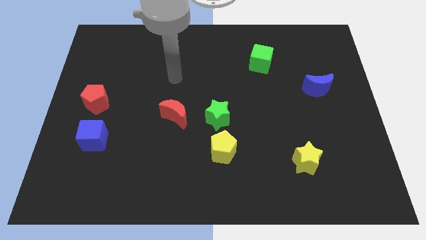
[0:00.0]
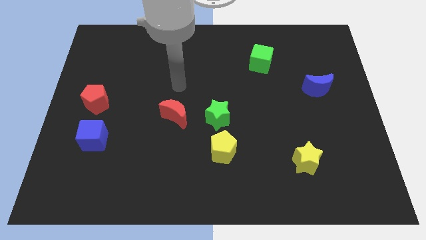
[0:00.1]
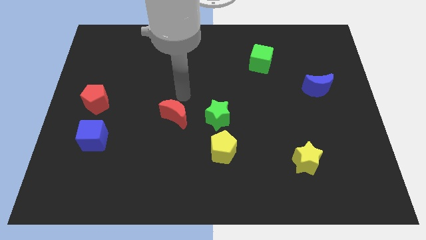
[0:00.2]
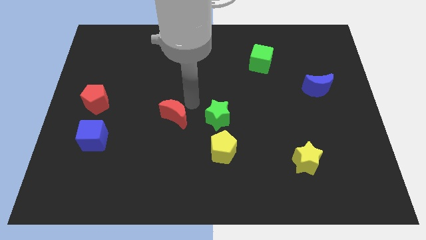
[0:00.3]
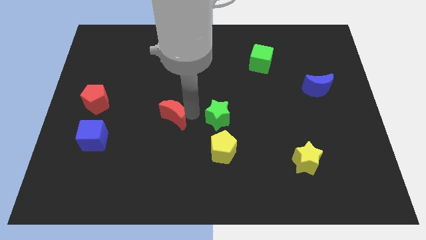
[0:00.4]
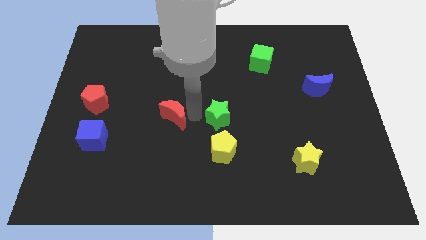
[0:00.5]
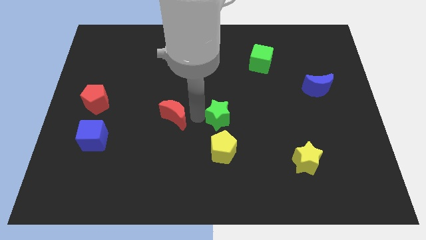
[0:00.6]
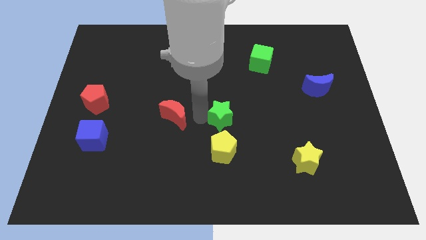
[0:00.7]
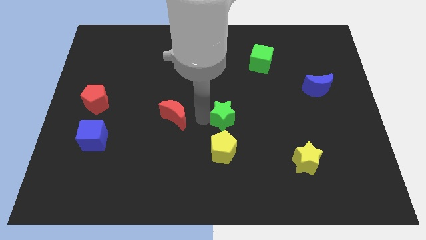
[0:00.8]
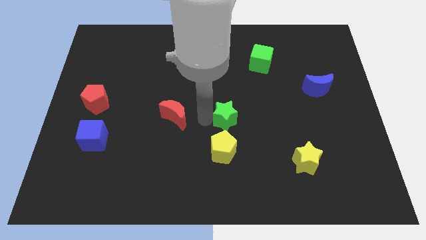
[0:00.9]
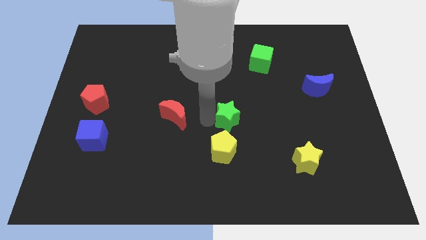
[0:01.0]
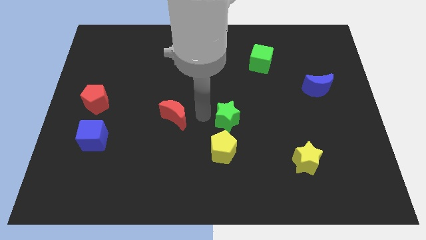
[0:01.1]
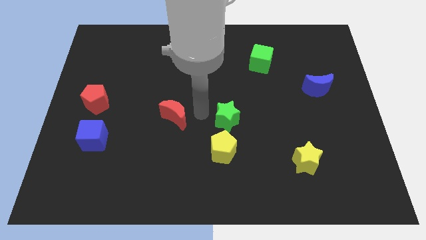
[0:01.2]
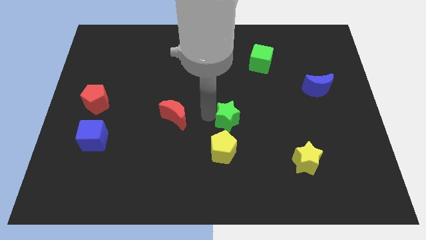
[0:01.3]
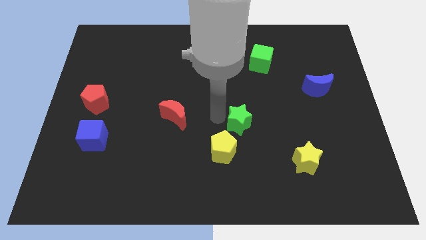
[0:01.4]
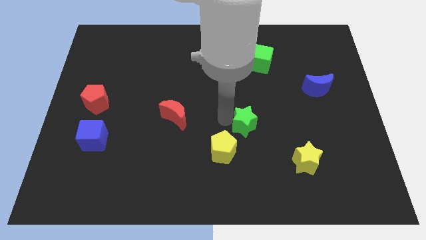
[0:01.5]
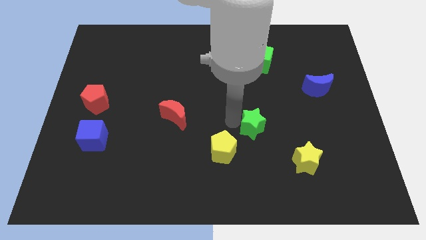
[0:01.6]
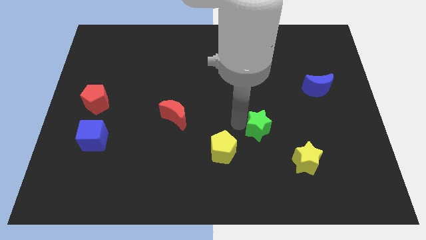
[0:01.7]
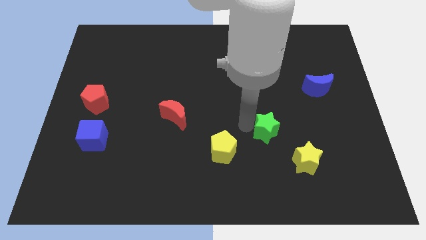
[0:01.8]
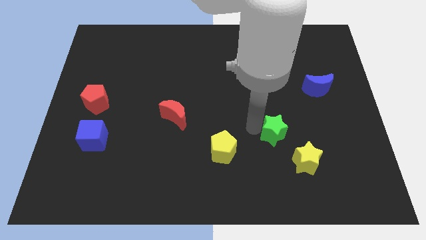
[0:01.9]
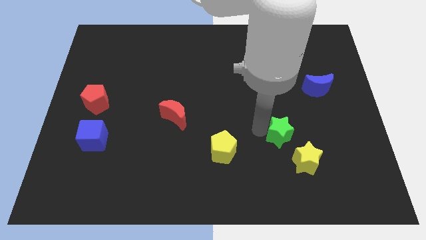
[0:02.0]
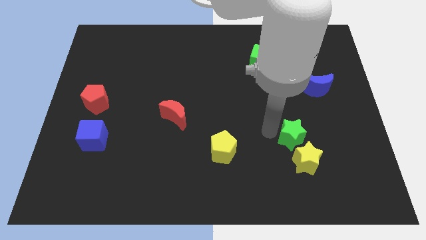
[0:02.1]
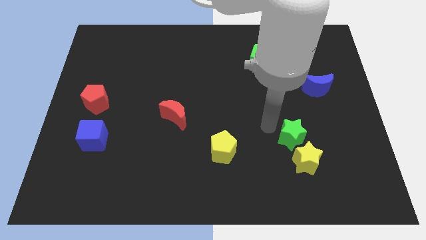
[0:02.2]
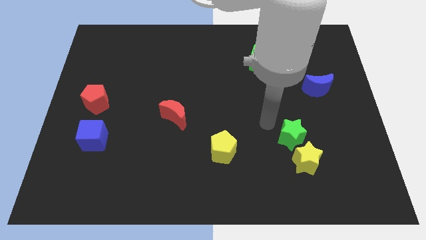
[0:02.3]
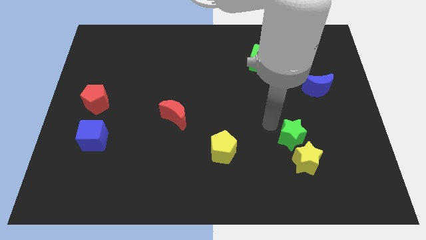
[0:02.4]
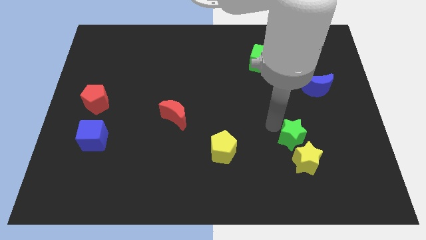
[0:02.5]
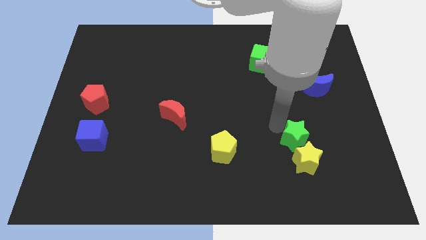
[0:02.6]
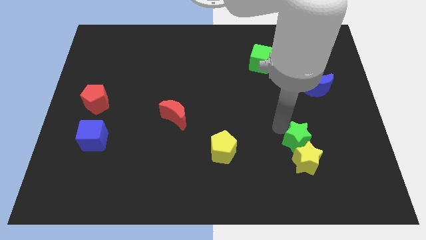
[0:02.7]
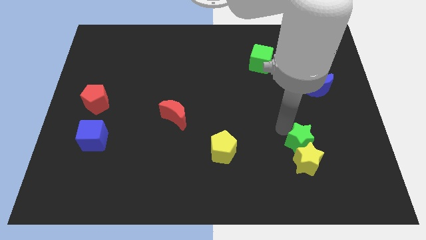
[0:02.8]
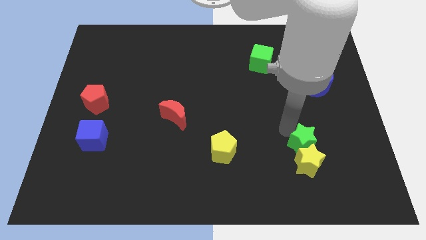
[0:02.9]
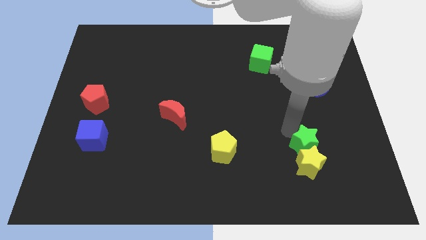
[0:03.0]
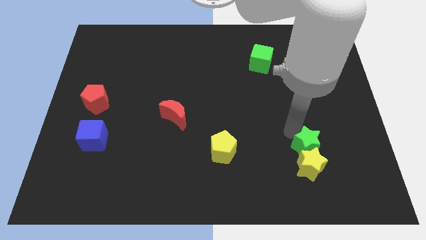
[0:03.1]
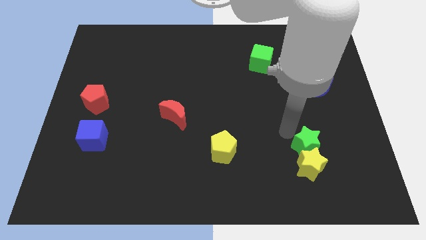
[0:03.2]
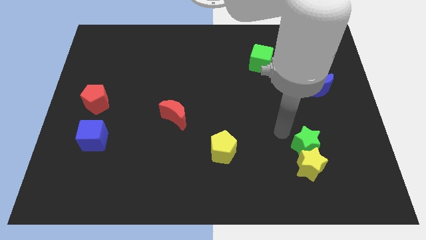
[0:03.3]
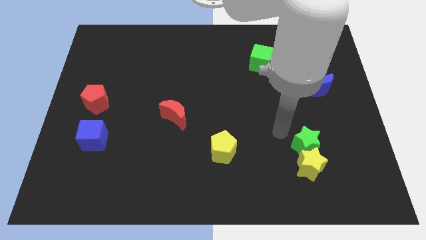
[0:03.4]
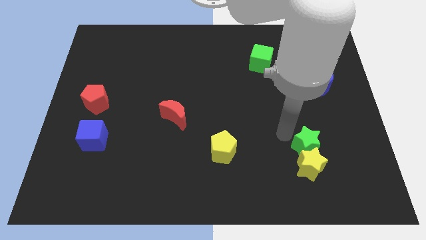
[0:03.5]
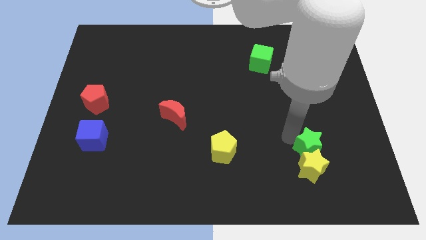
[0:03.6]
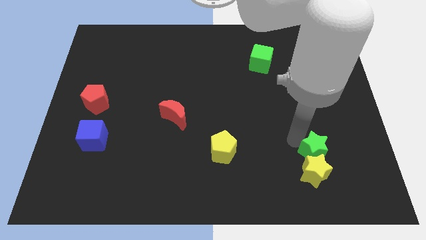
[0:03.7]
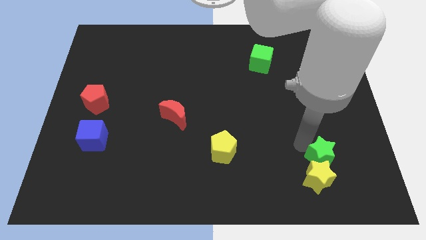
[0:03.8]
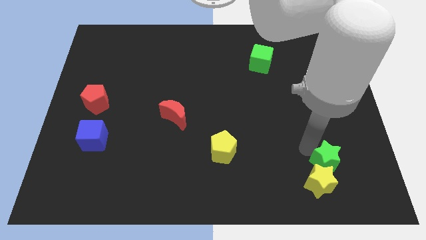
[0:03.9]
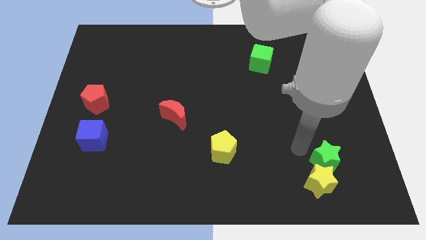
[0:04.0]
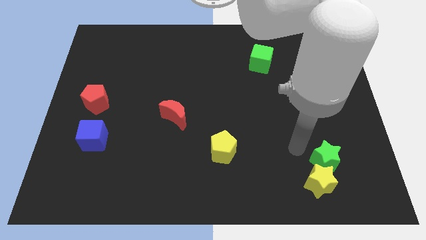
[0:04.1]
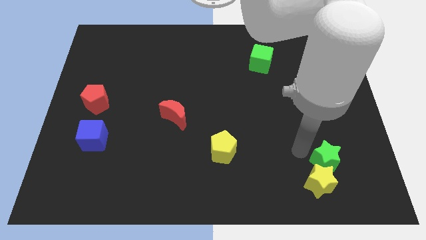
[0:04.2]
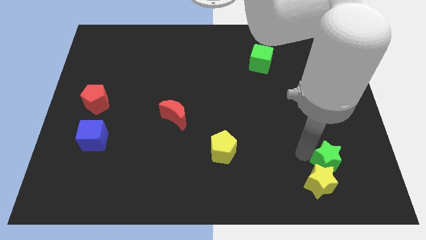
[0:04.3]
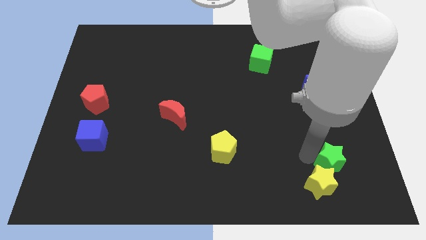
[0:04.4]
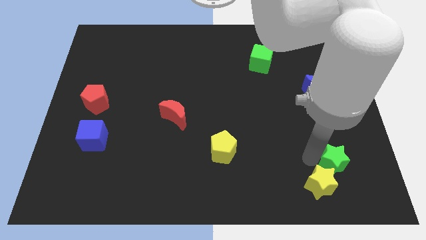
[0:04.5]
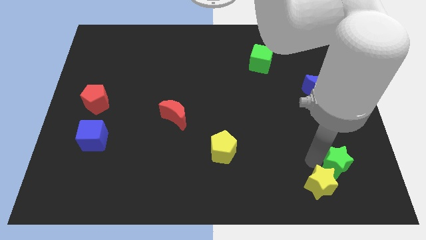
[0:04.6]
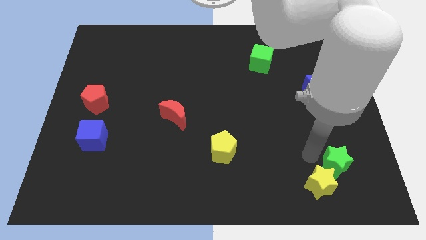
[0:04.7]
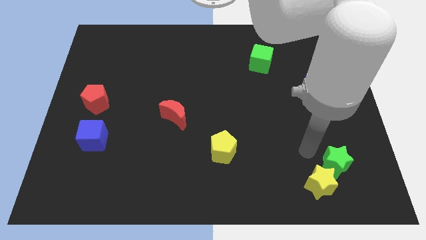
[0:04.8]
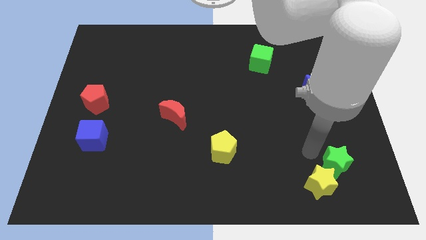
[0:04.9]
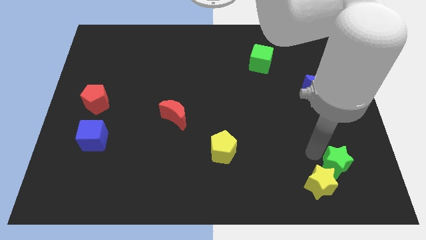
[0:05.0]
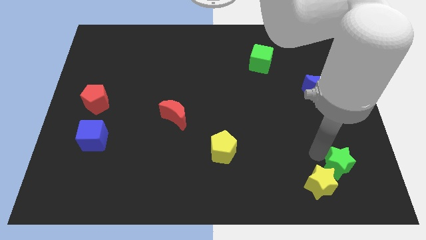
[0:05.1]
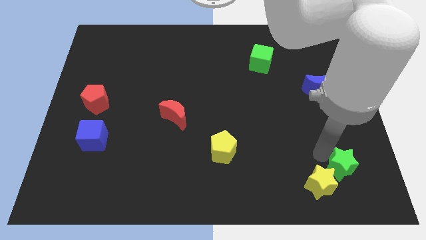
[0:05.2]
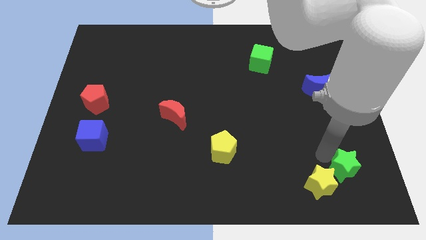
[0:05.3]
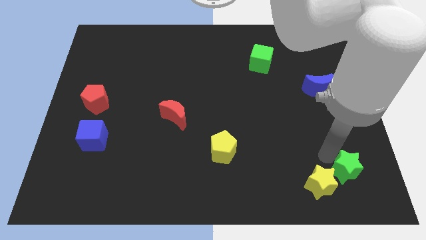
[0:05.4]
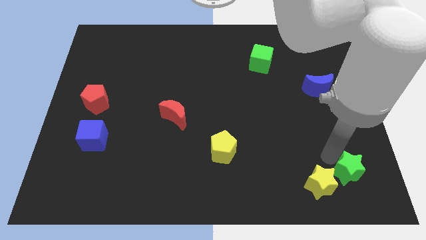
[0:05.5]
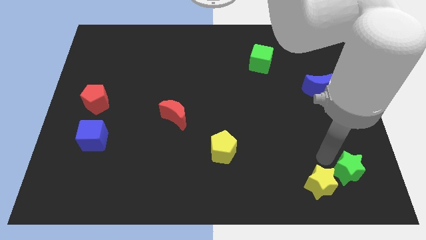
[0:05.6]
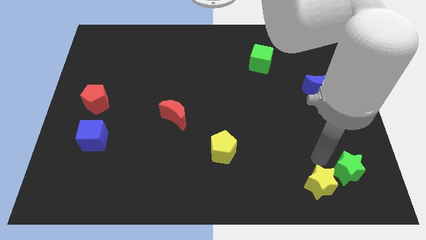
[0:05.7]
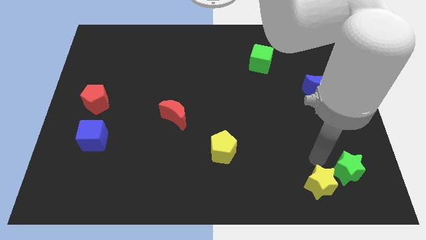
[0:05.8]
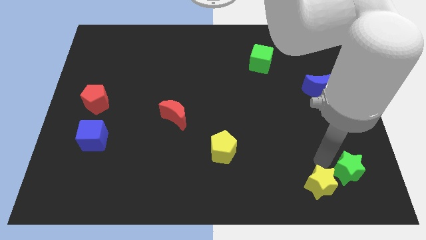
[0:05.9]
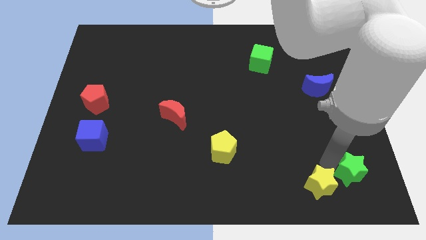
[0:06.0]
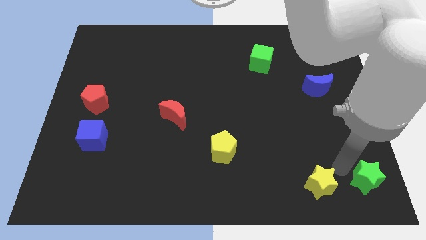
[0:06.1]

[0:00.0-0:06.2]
slide the green star to the lower right corner
